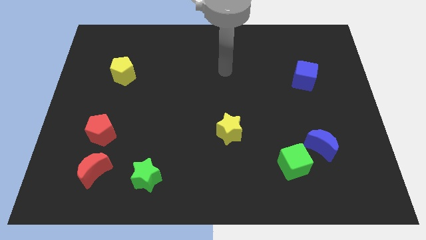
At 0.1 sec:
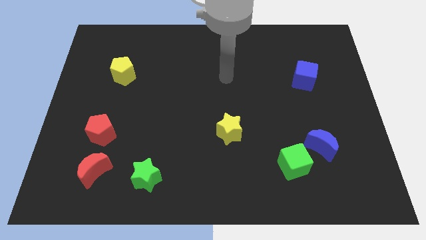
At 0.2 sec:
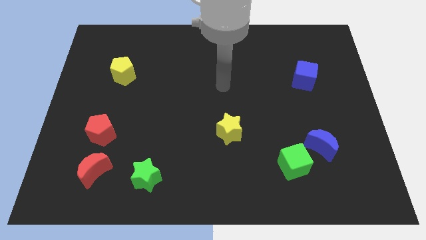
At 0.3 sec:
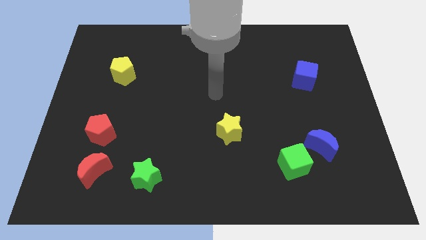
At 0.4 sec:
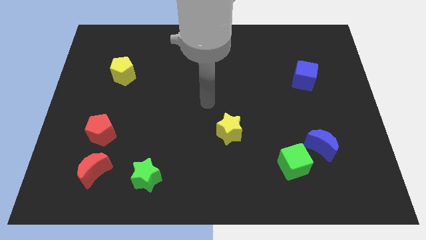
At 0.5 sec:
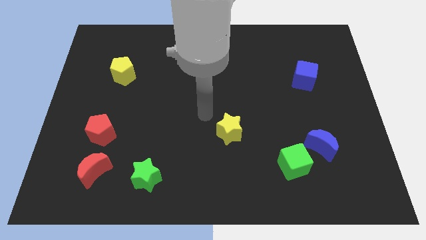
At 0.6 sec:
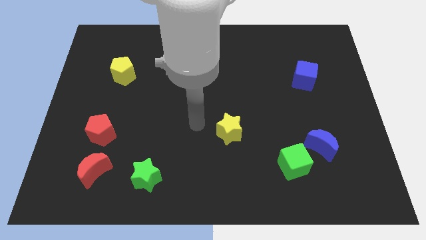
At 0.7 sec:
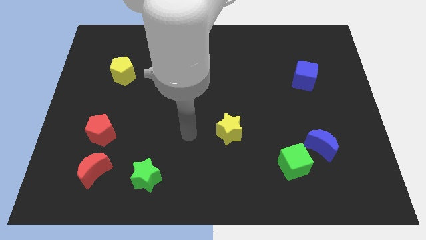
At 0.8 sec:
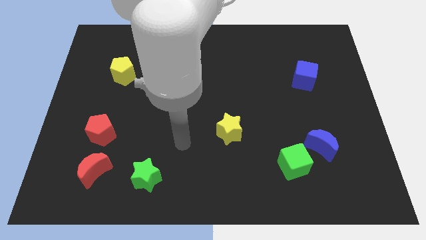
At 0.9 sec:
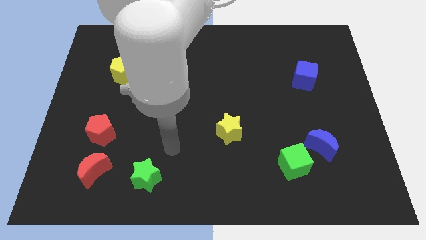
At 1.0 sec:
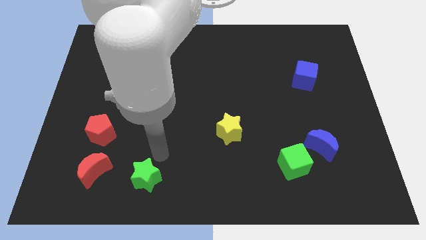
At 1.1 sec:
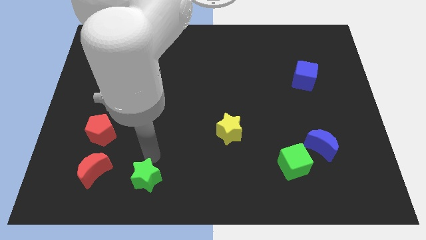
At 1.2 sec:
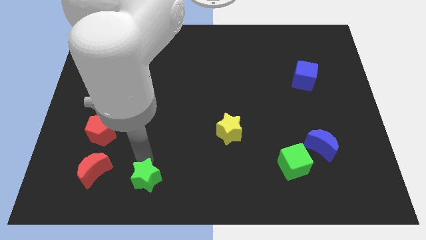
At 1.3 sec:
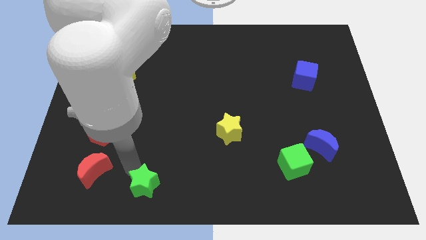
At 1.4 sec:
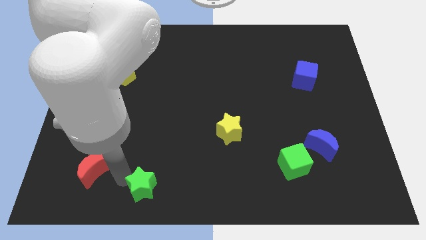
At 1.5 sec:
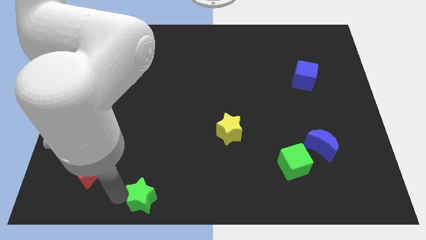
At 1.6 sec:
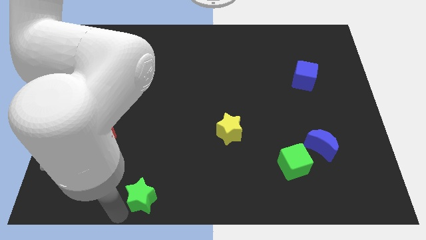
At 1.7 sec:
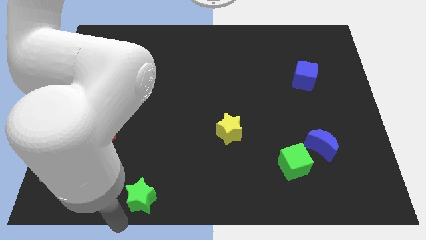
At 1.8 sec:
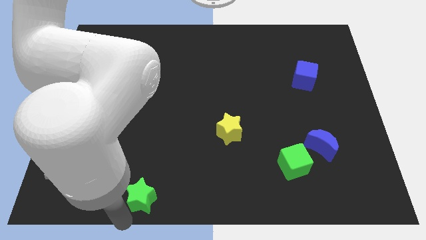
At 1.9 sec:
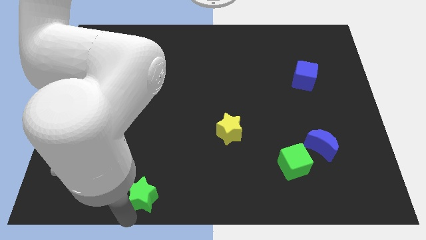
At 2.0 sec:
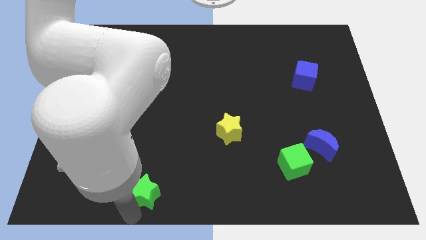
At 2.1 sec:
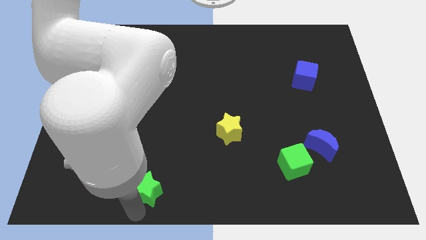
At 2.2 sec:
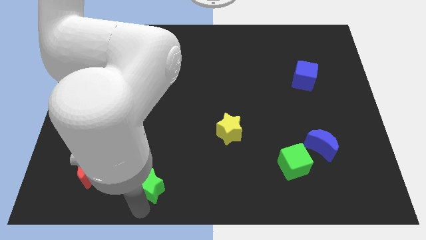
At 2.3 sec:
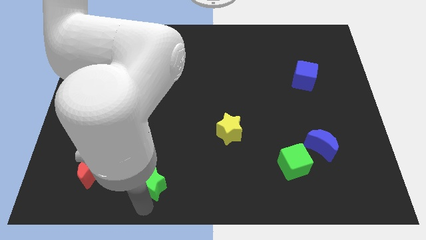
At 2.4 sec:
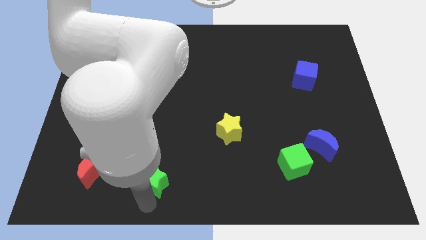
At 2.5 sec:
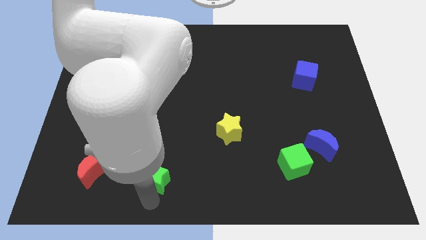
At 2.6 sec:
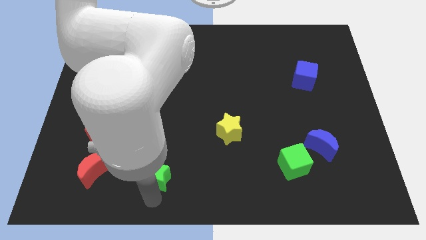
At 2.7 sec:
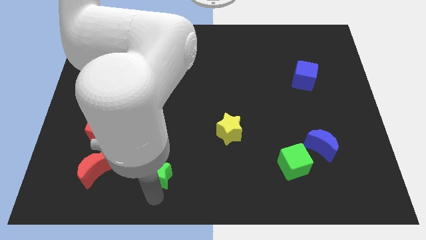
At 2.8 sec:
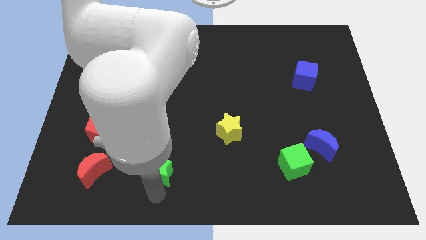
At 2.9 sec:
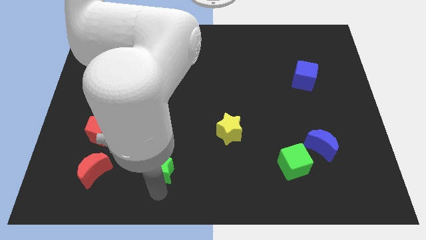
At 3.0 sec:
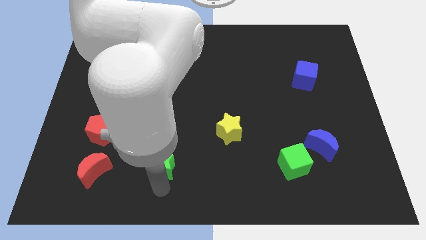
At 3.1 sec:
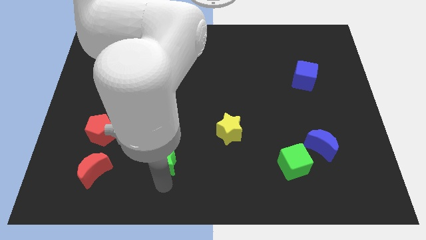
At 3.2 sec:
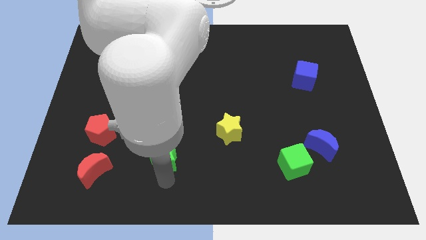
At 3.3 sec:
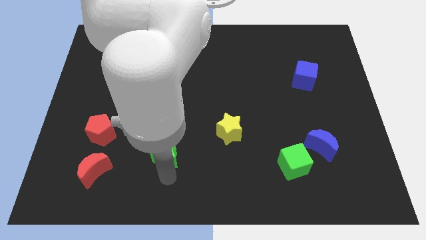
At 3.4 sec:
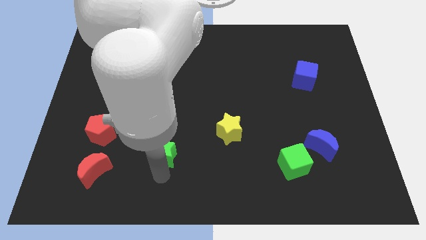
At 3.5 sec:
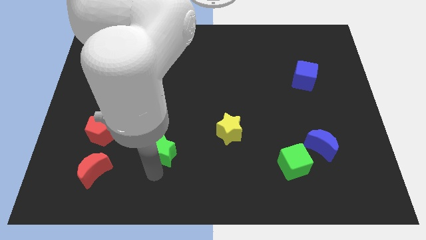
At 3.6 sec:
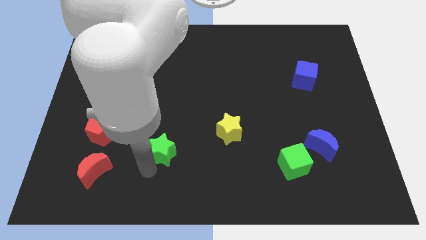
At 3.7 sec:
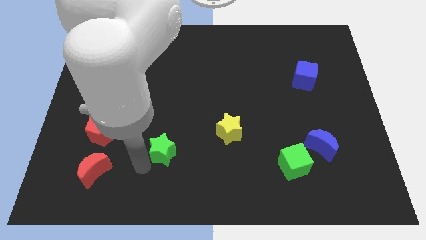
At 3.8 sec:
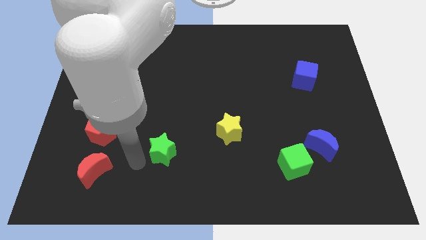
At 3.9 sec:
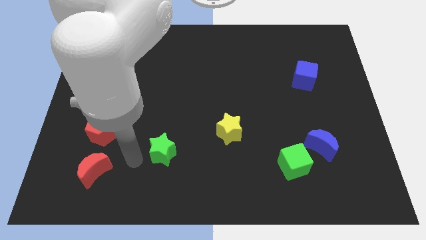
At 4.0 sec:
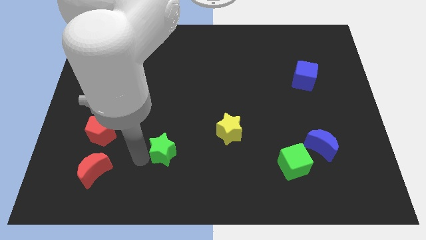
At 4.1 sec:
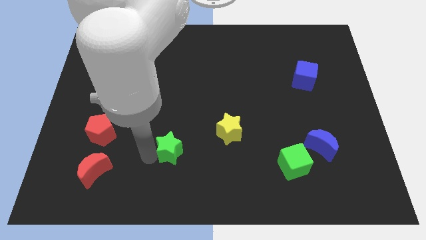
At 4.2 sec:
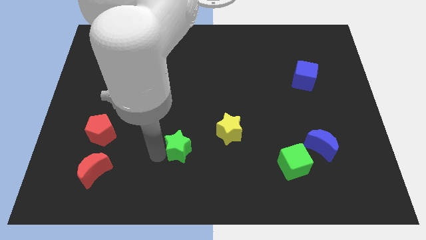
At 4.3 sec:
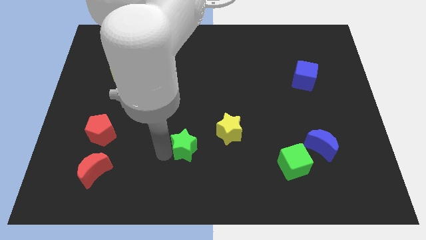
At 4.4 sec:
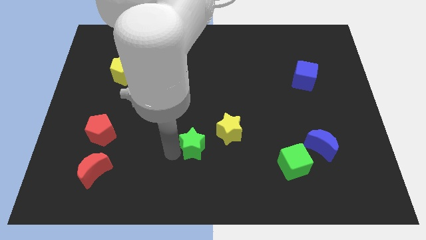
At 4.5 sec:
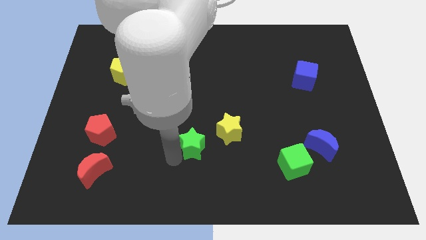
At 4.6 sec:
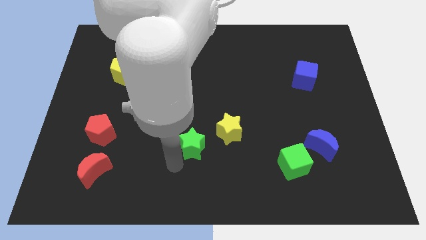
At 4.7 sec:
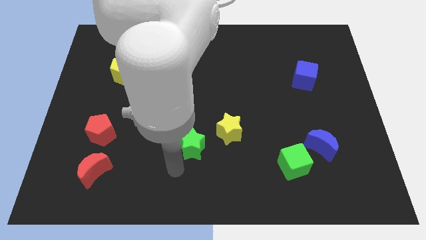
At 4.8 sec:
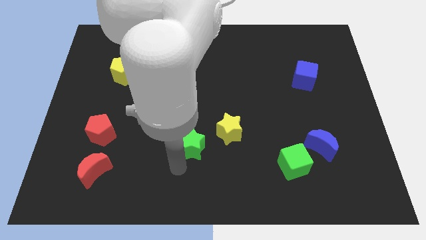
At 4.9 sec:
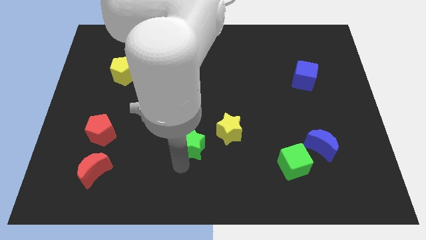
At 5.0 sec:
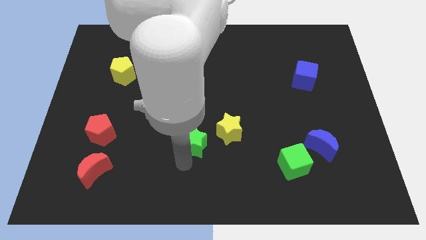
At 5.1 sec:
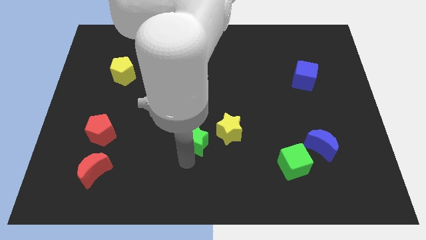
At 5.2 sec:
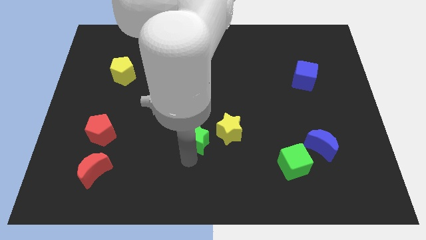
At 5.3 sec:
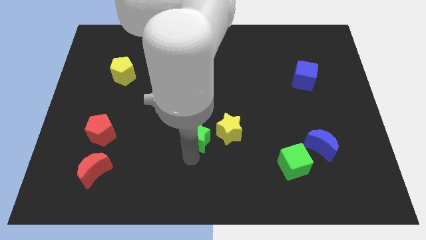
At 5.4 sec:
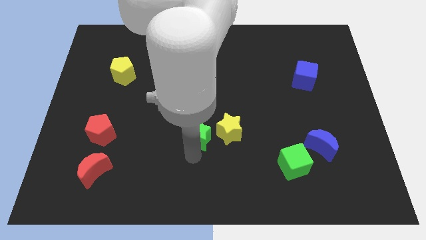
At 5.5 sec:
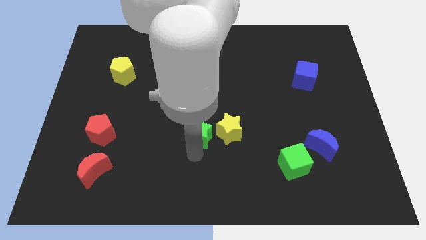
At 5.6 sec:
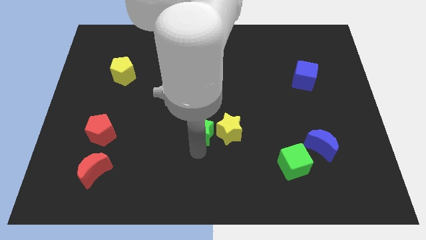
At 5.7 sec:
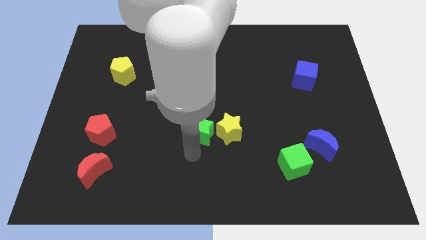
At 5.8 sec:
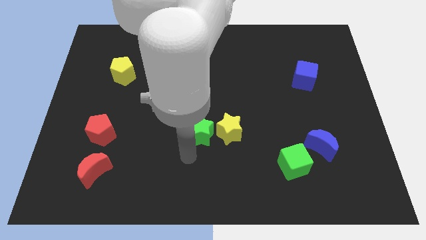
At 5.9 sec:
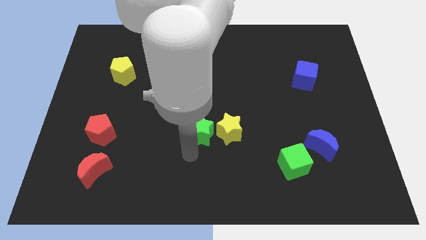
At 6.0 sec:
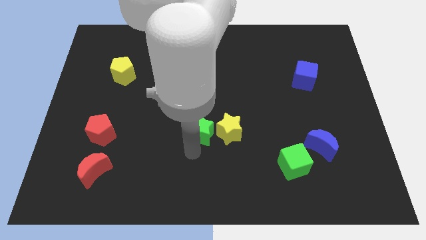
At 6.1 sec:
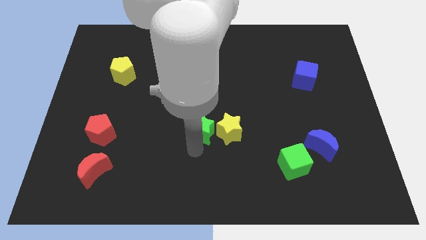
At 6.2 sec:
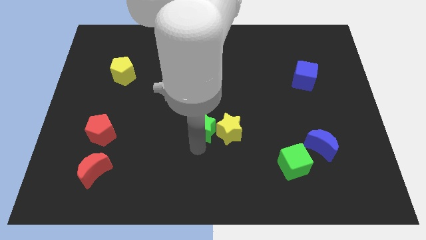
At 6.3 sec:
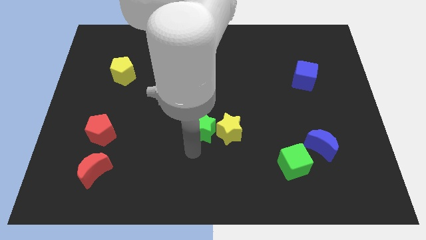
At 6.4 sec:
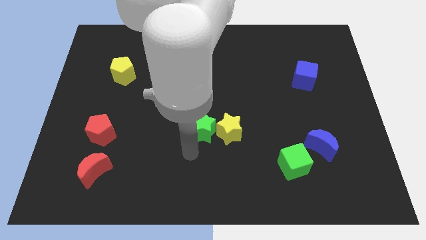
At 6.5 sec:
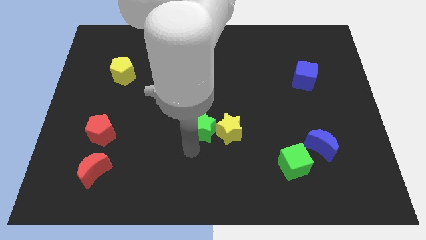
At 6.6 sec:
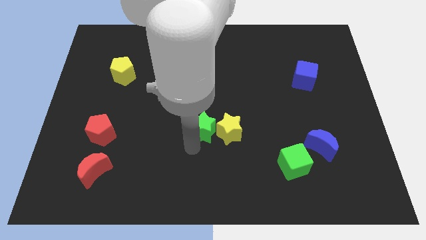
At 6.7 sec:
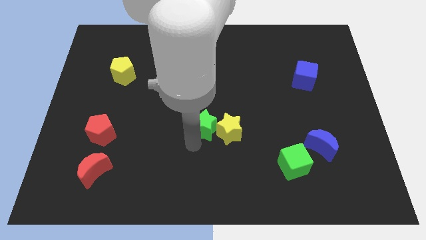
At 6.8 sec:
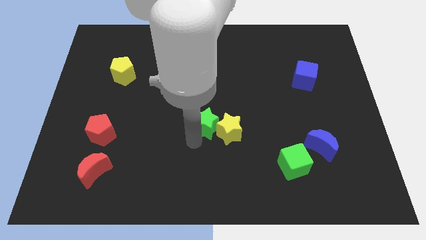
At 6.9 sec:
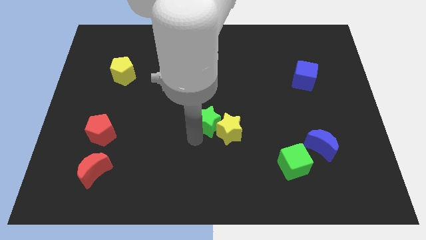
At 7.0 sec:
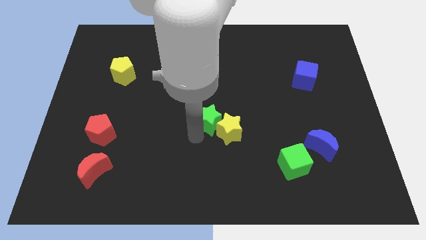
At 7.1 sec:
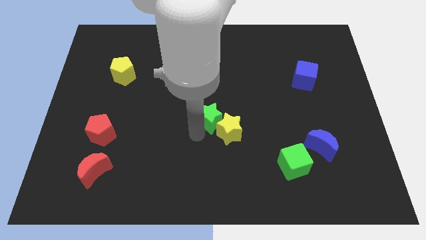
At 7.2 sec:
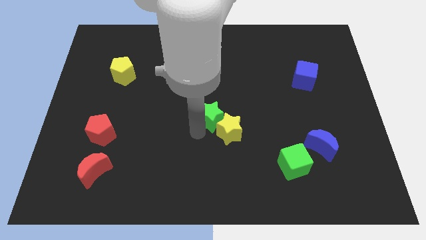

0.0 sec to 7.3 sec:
move the green star up and right diagonally

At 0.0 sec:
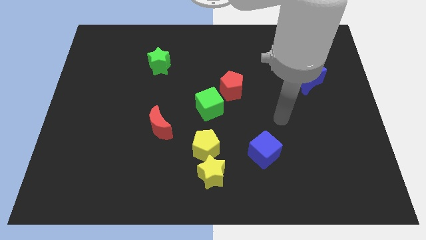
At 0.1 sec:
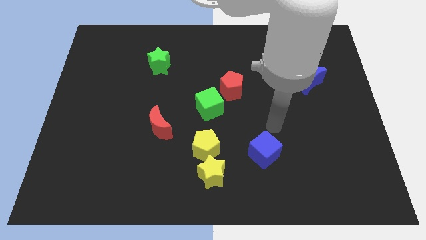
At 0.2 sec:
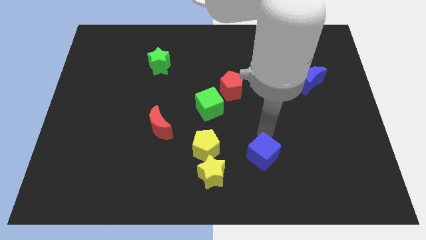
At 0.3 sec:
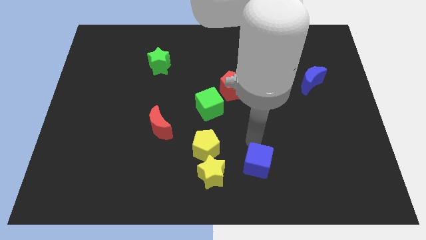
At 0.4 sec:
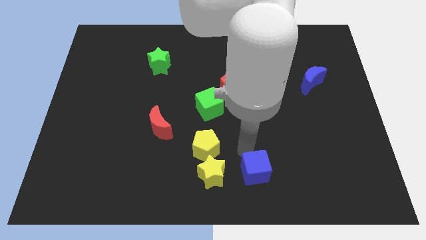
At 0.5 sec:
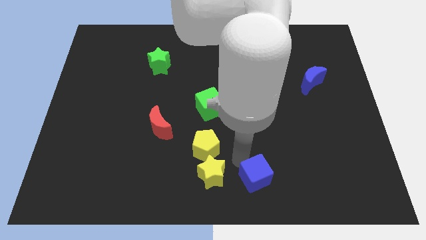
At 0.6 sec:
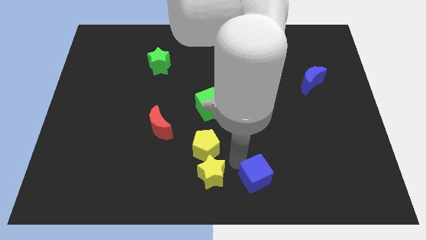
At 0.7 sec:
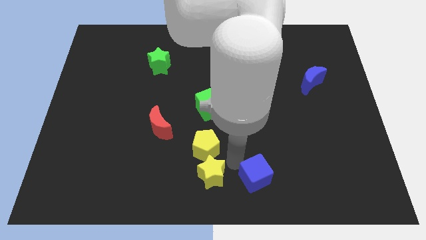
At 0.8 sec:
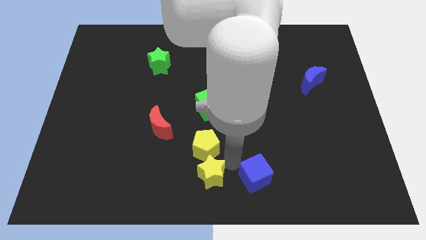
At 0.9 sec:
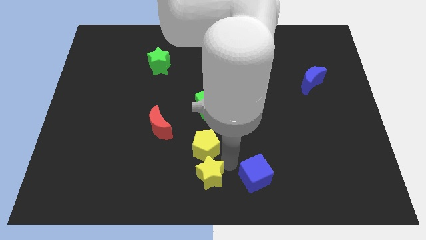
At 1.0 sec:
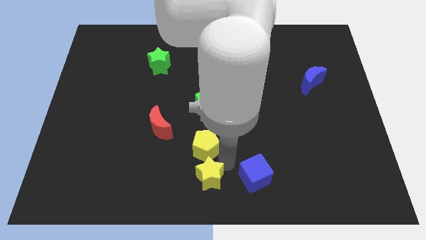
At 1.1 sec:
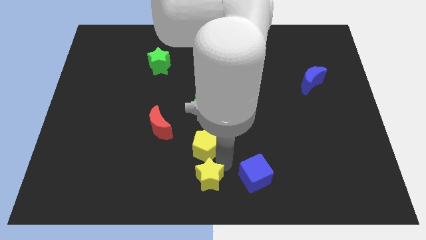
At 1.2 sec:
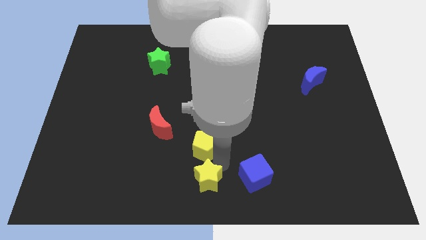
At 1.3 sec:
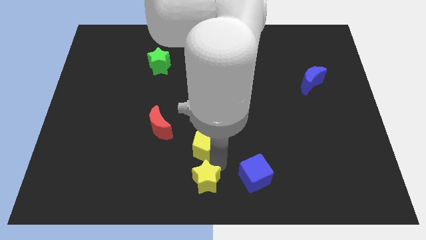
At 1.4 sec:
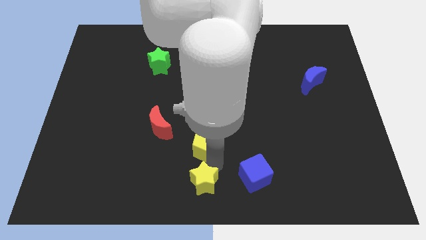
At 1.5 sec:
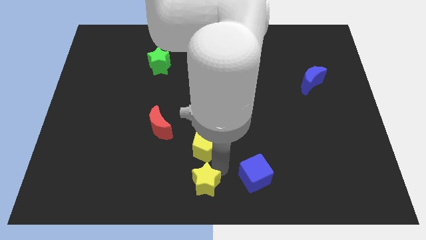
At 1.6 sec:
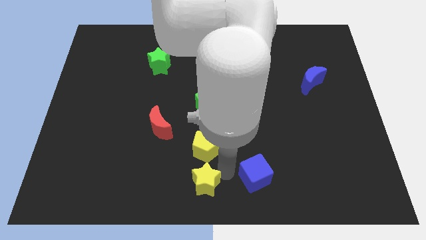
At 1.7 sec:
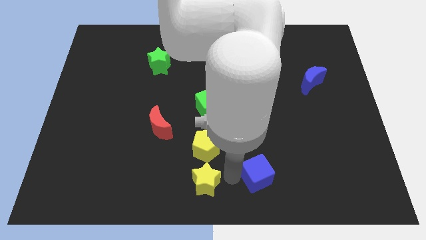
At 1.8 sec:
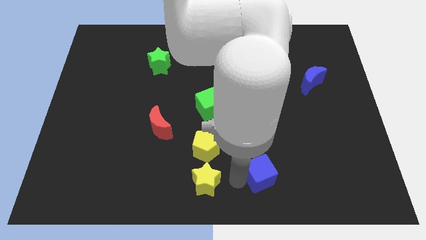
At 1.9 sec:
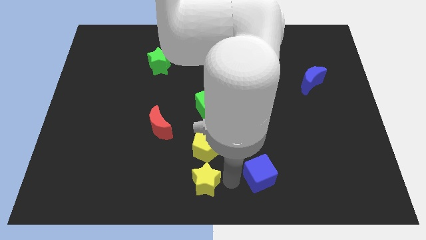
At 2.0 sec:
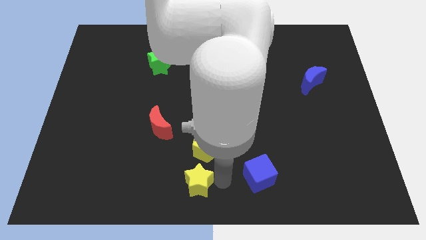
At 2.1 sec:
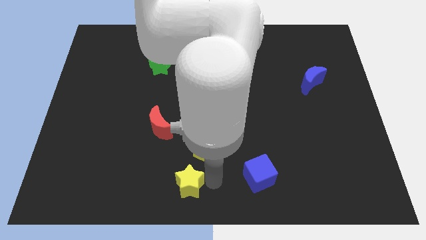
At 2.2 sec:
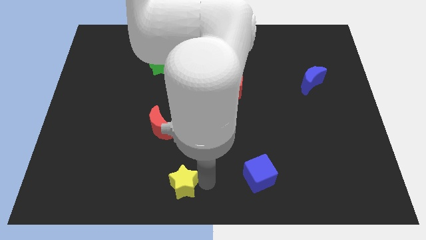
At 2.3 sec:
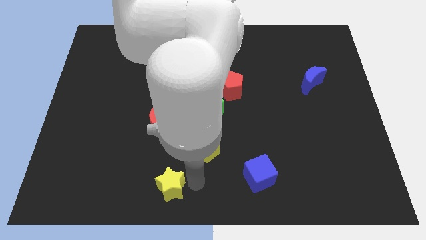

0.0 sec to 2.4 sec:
slide the yellow star to the left a little
